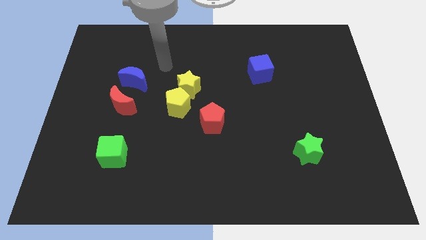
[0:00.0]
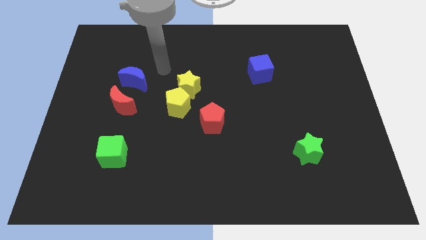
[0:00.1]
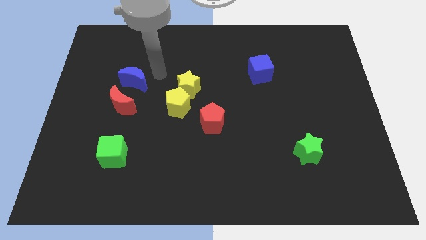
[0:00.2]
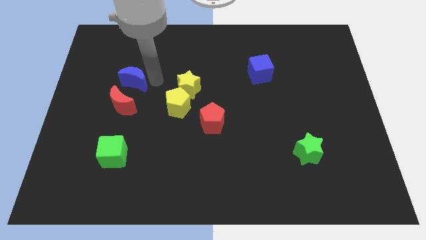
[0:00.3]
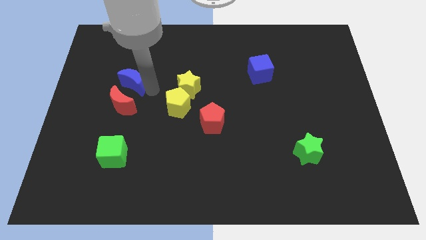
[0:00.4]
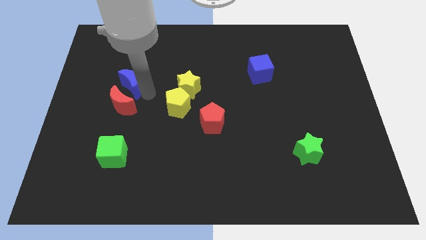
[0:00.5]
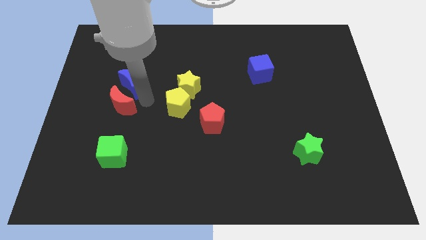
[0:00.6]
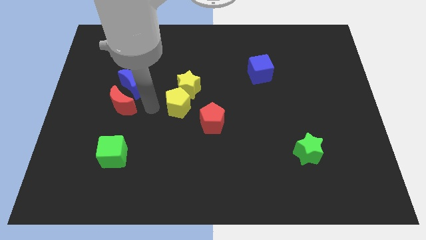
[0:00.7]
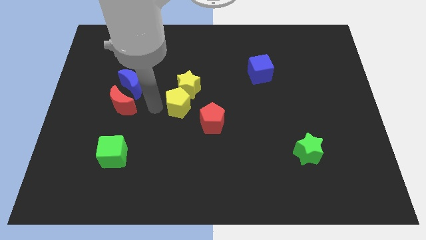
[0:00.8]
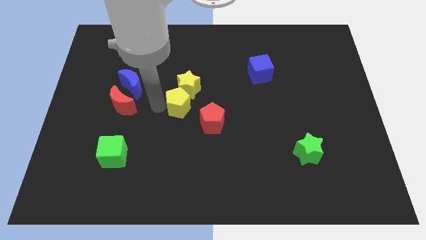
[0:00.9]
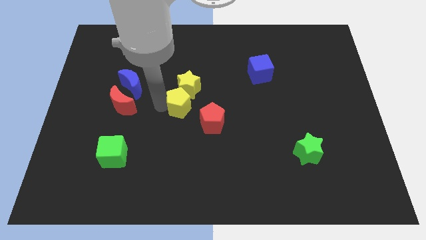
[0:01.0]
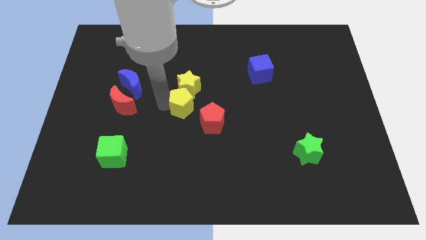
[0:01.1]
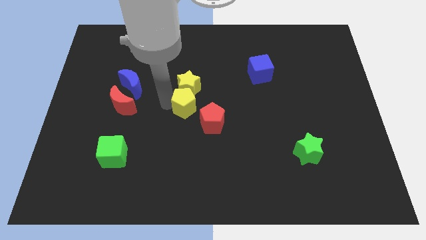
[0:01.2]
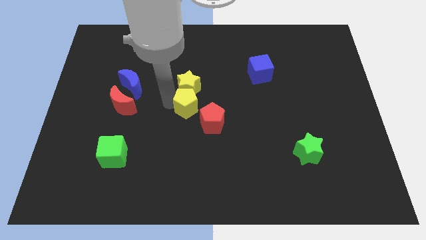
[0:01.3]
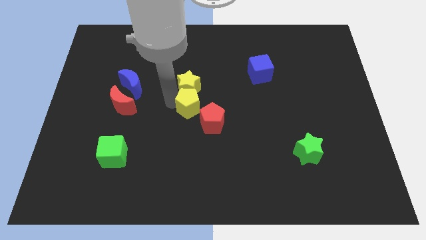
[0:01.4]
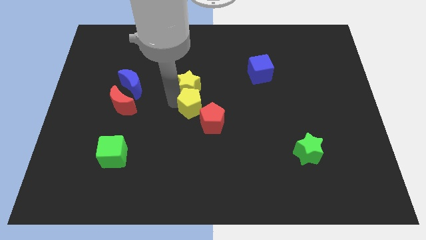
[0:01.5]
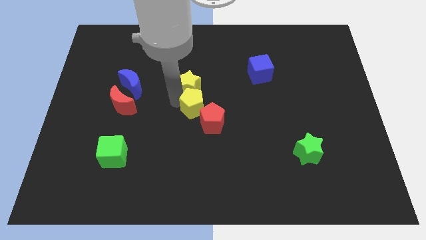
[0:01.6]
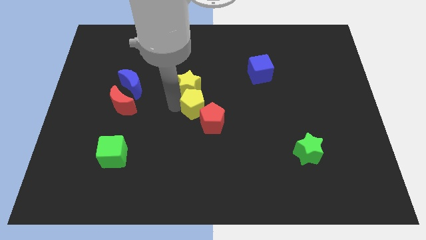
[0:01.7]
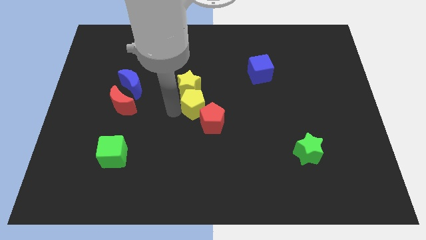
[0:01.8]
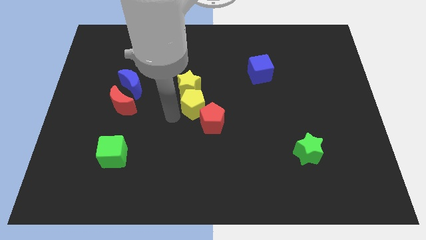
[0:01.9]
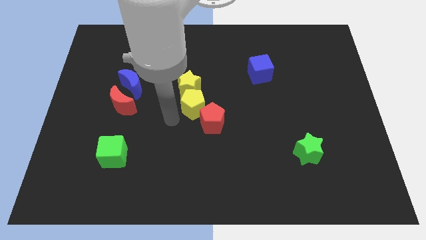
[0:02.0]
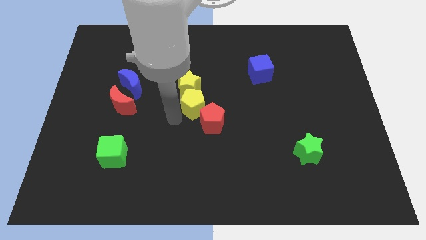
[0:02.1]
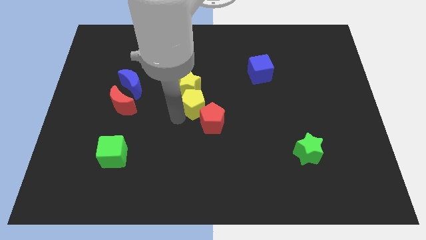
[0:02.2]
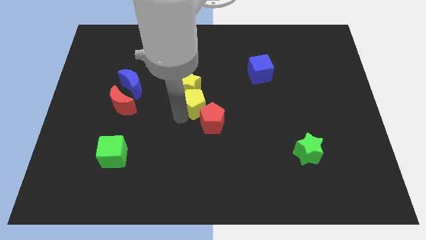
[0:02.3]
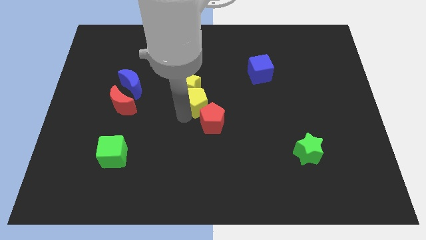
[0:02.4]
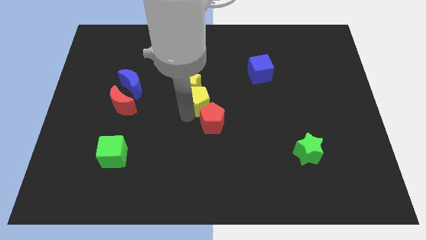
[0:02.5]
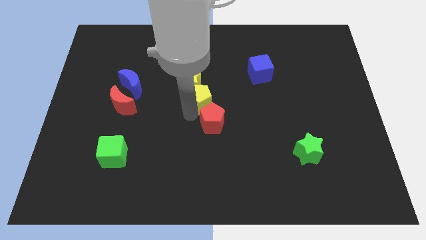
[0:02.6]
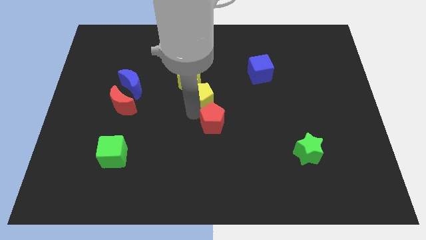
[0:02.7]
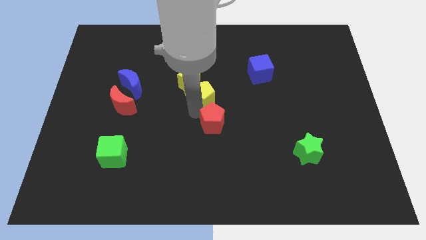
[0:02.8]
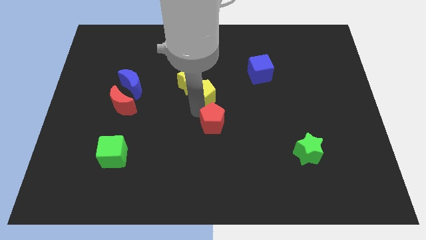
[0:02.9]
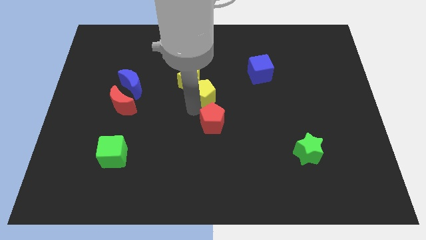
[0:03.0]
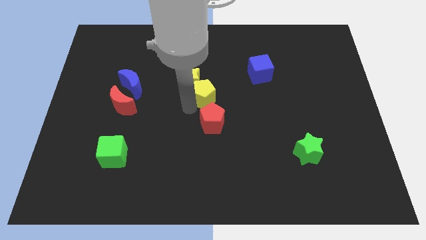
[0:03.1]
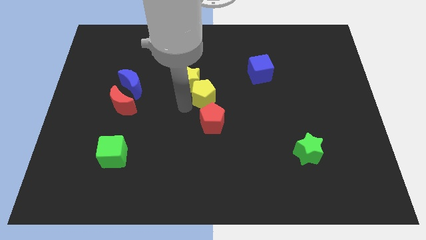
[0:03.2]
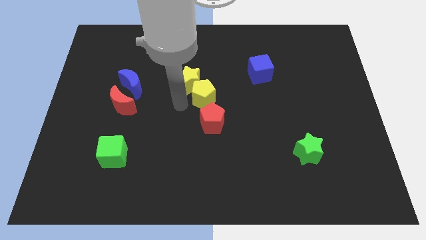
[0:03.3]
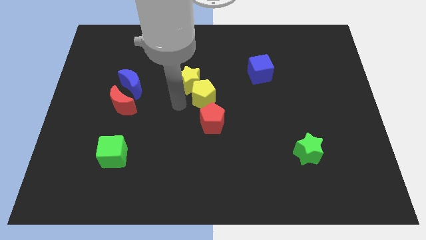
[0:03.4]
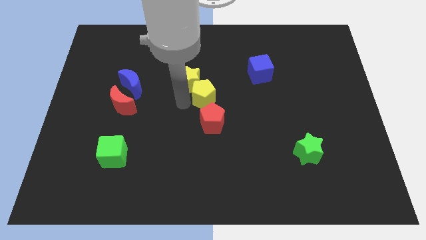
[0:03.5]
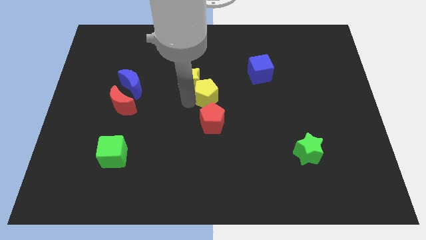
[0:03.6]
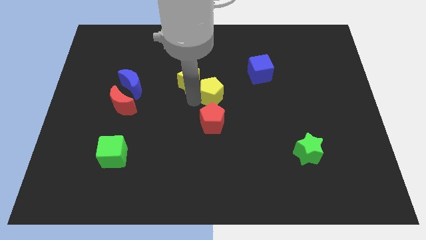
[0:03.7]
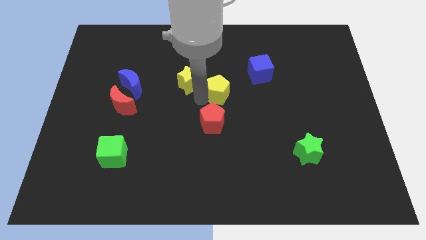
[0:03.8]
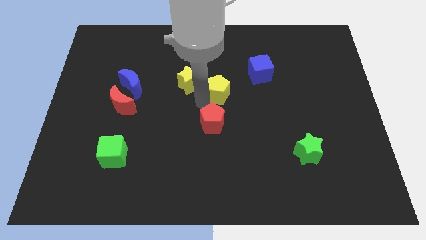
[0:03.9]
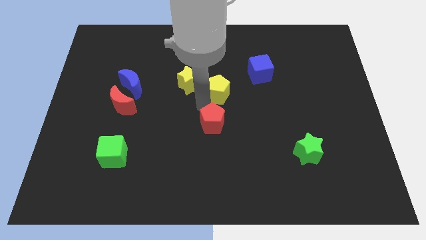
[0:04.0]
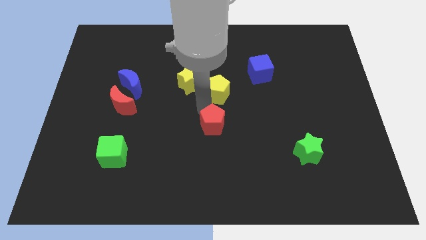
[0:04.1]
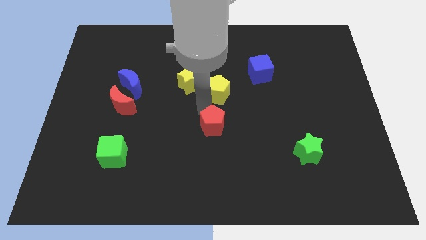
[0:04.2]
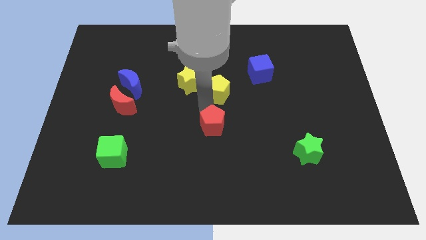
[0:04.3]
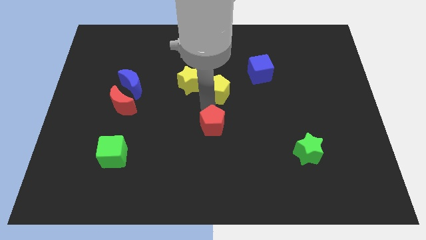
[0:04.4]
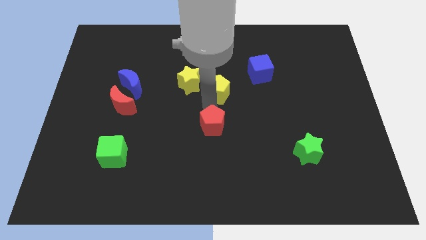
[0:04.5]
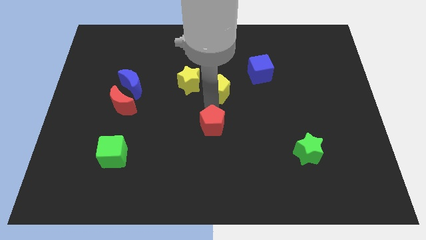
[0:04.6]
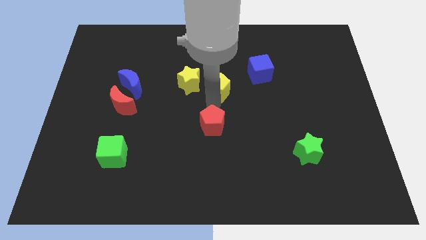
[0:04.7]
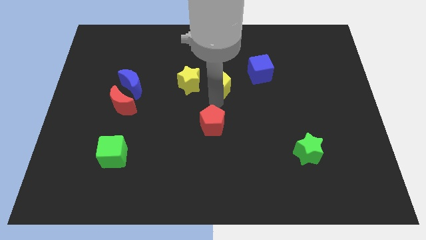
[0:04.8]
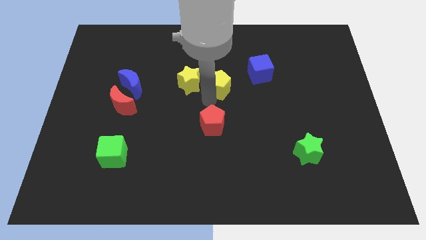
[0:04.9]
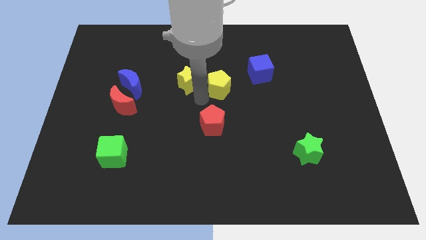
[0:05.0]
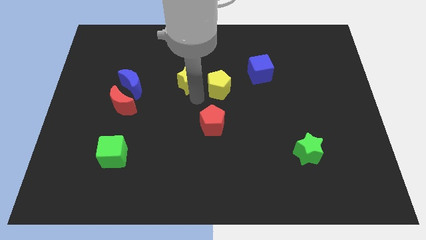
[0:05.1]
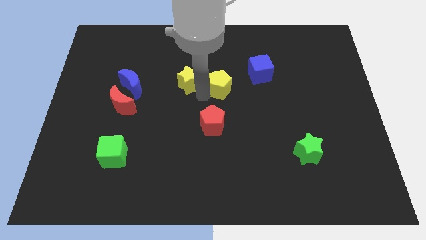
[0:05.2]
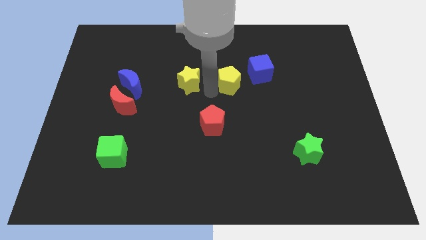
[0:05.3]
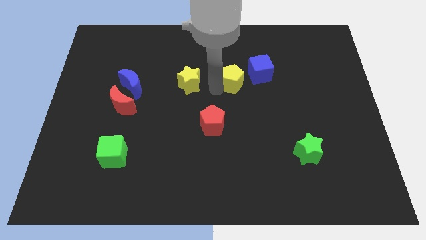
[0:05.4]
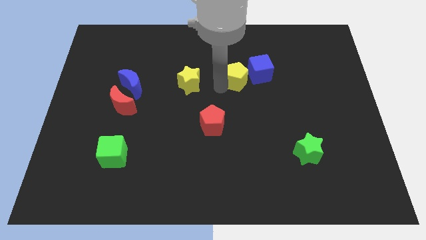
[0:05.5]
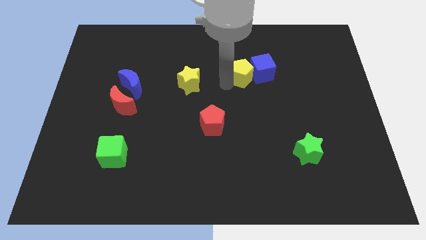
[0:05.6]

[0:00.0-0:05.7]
slide the yellow pentagon close to the blue cube

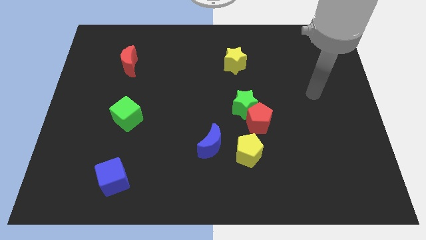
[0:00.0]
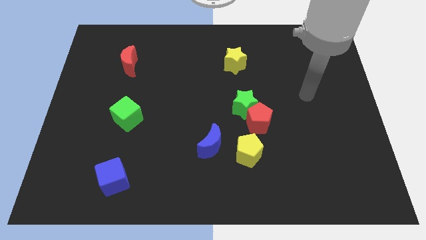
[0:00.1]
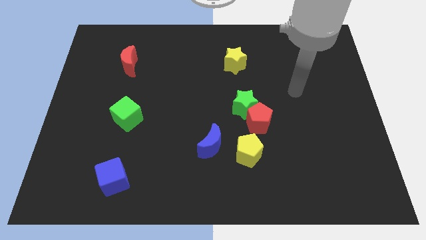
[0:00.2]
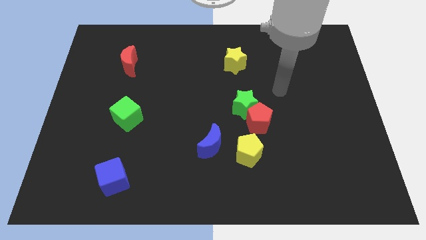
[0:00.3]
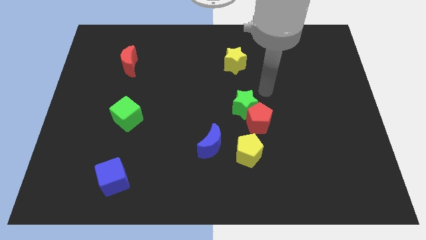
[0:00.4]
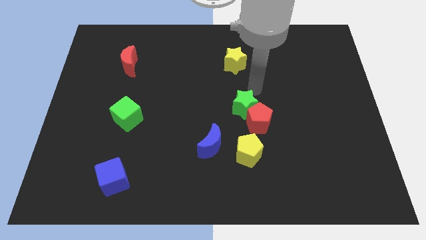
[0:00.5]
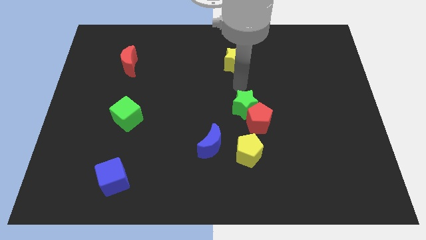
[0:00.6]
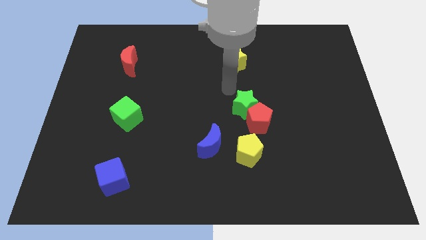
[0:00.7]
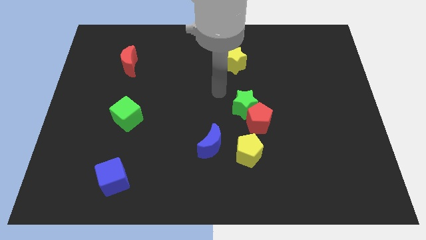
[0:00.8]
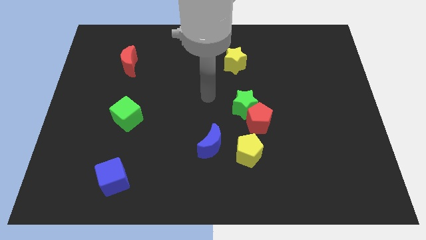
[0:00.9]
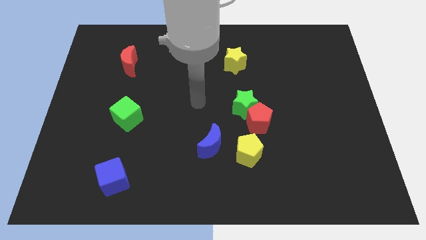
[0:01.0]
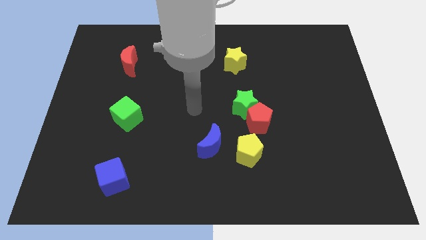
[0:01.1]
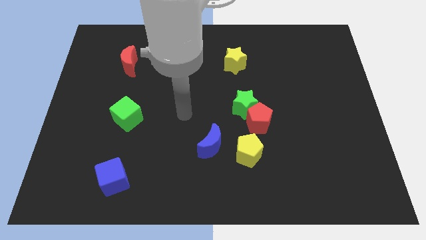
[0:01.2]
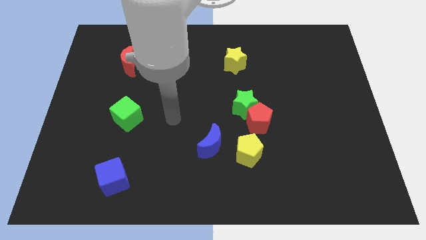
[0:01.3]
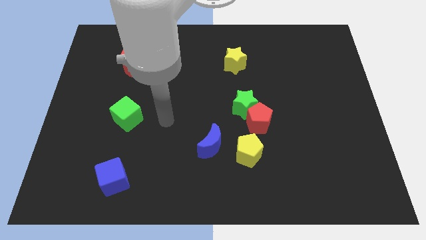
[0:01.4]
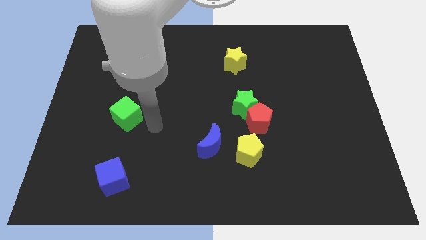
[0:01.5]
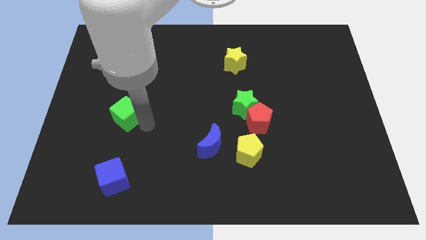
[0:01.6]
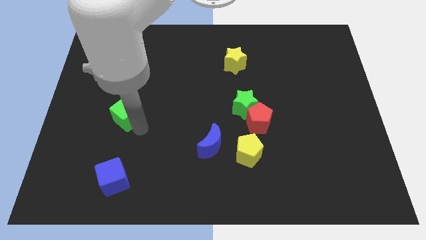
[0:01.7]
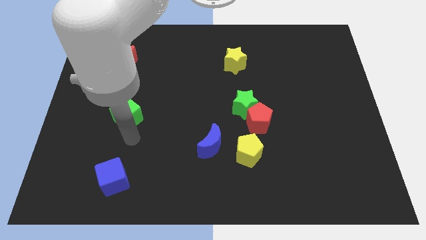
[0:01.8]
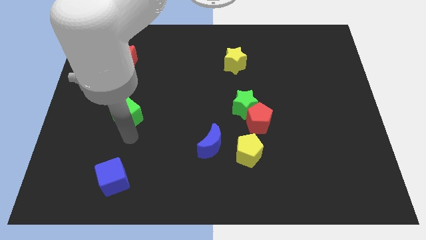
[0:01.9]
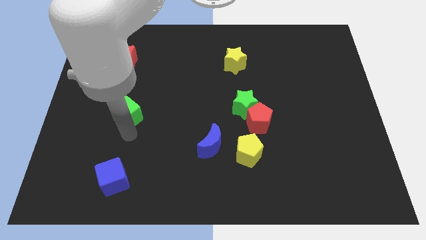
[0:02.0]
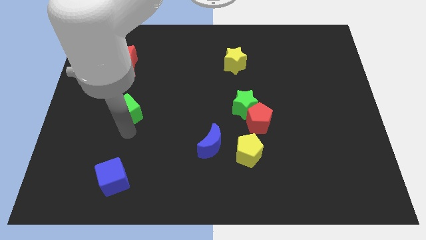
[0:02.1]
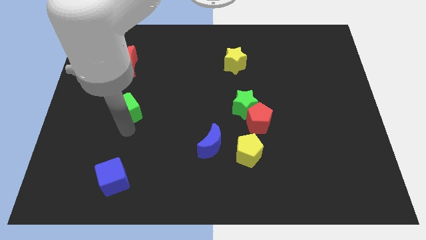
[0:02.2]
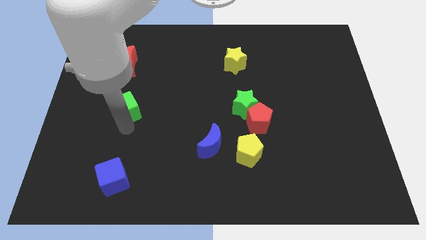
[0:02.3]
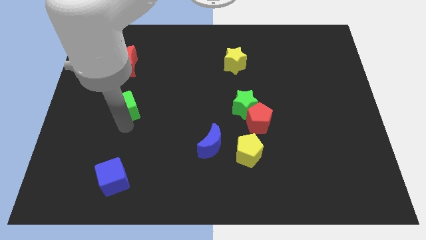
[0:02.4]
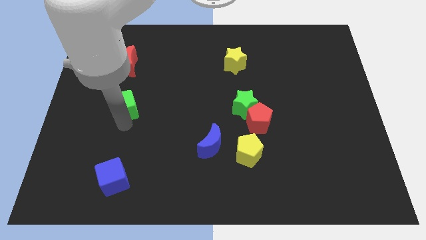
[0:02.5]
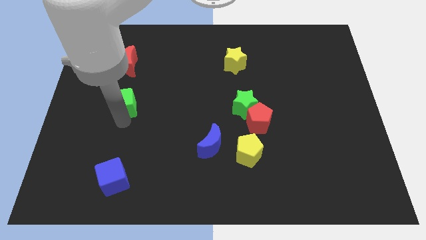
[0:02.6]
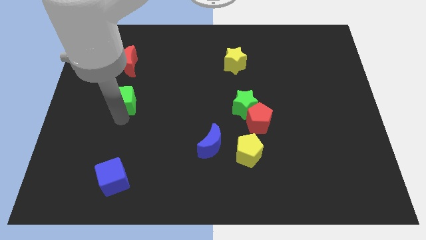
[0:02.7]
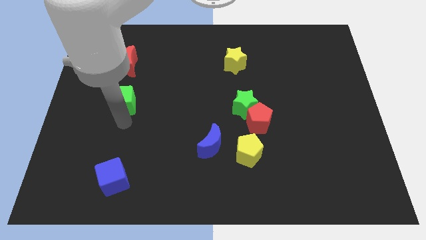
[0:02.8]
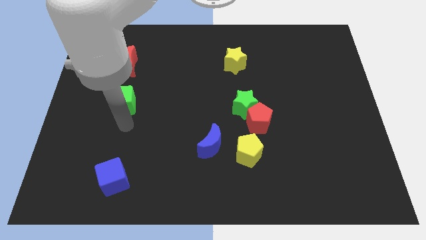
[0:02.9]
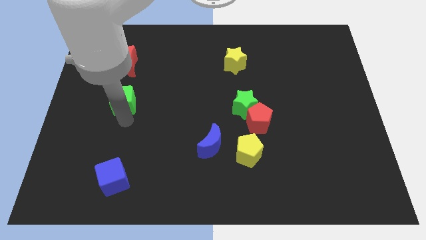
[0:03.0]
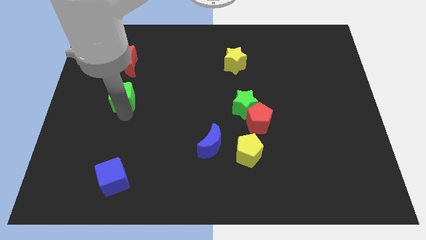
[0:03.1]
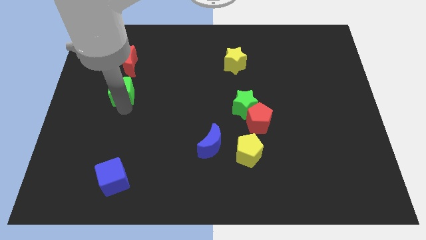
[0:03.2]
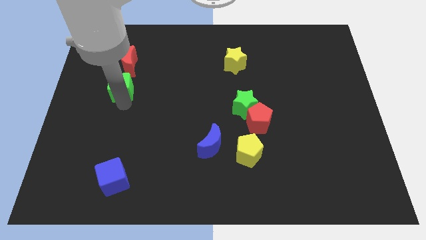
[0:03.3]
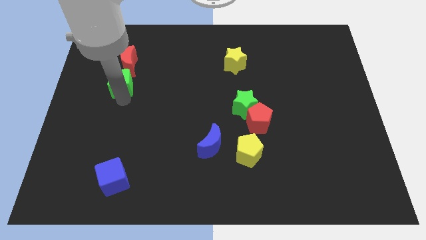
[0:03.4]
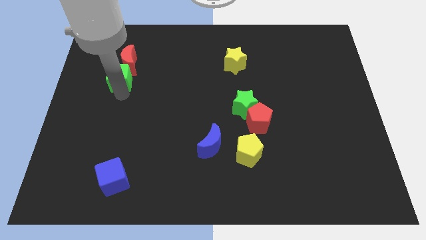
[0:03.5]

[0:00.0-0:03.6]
put the green cube to the red moon
